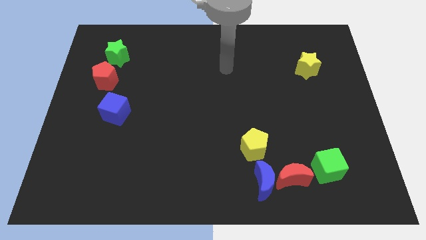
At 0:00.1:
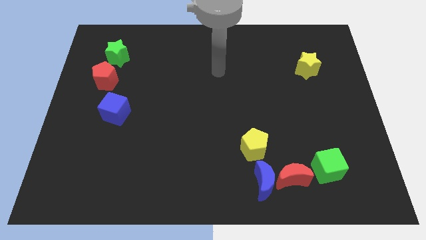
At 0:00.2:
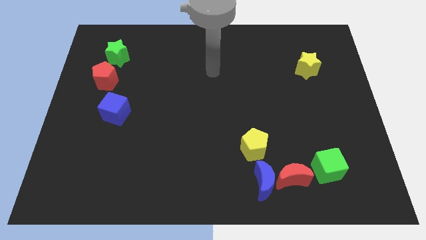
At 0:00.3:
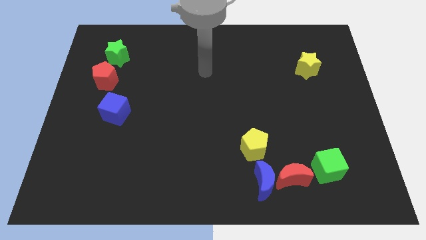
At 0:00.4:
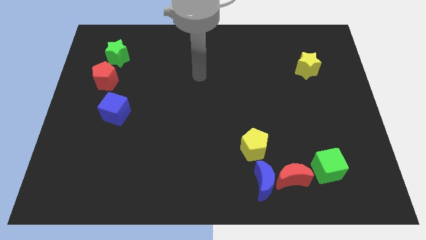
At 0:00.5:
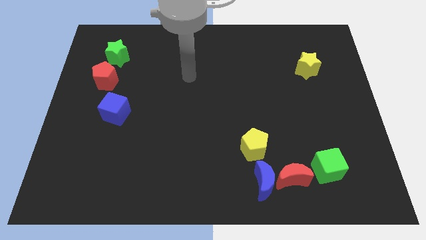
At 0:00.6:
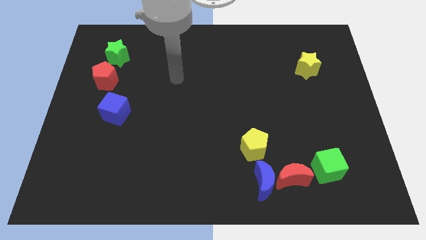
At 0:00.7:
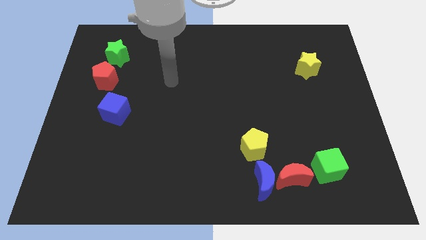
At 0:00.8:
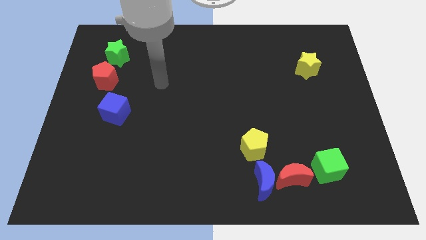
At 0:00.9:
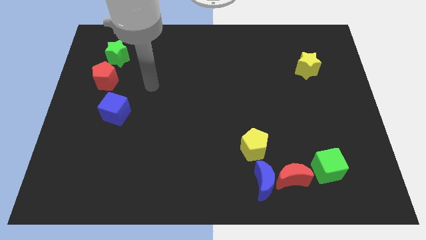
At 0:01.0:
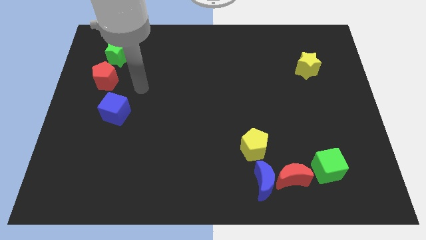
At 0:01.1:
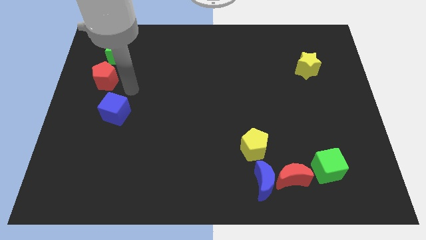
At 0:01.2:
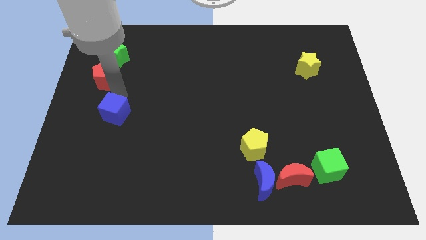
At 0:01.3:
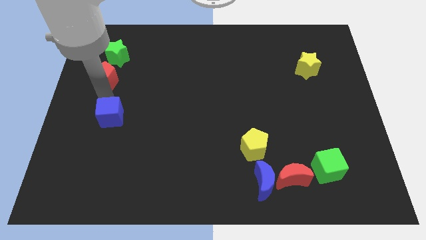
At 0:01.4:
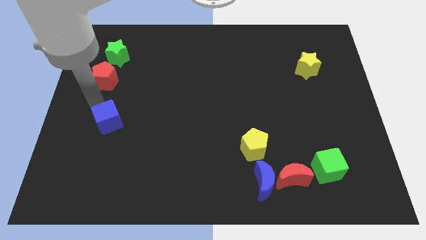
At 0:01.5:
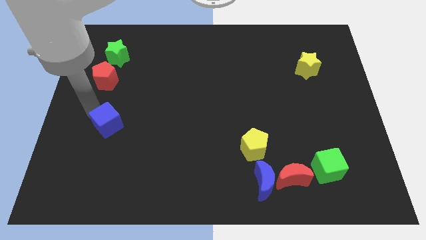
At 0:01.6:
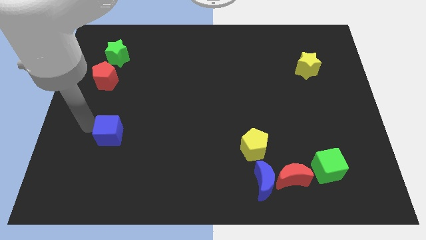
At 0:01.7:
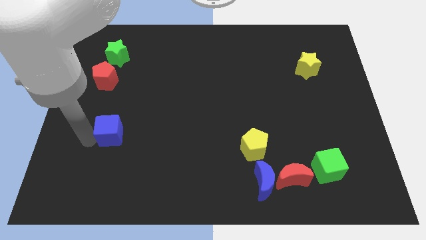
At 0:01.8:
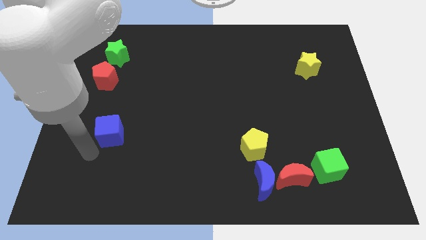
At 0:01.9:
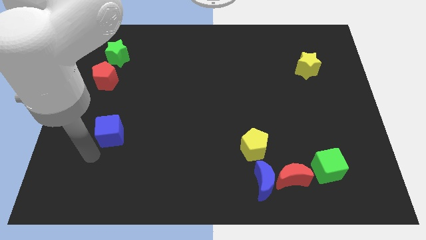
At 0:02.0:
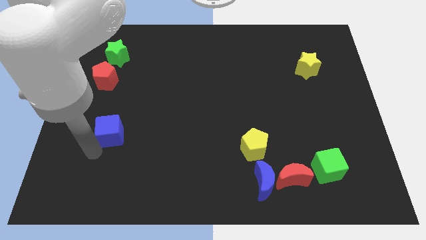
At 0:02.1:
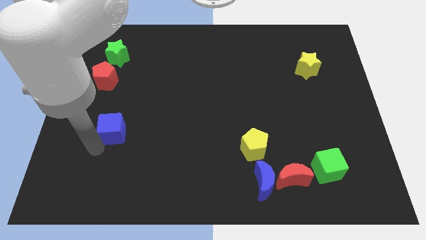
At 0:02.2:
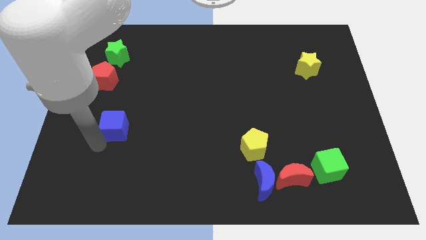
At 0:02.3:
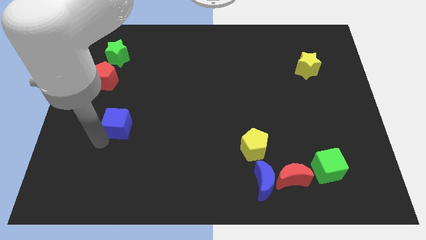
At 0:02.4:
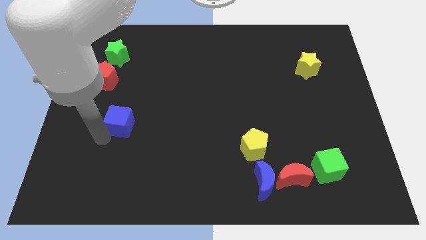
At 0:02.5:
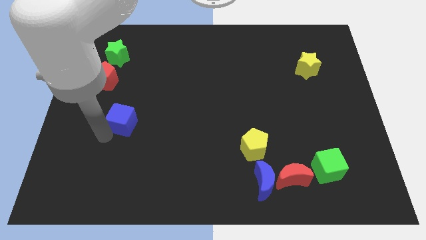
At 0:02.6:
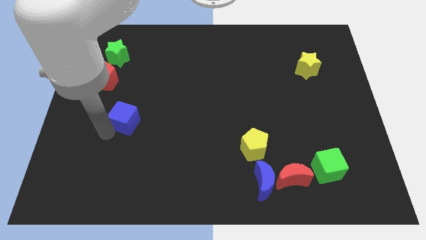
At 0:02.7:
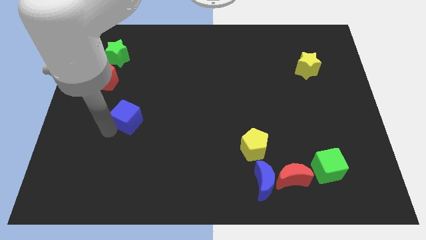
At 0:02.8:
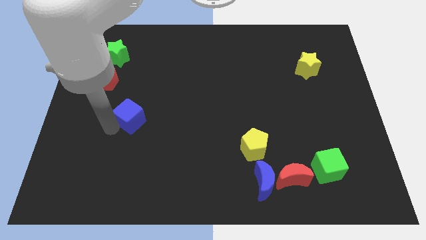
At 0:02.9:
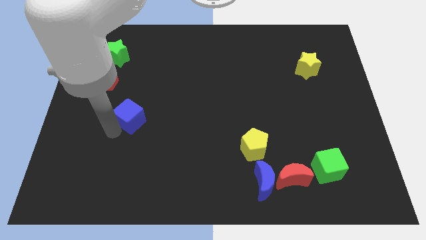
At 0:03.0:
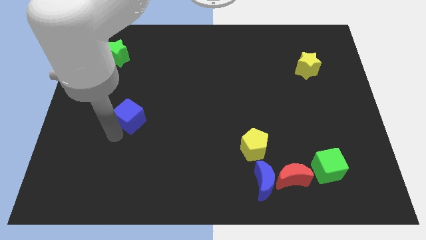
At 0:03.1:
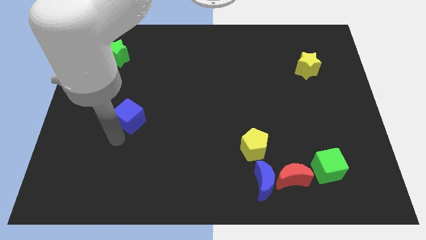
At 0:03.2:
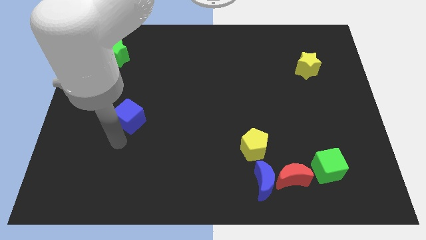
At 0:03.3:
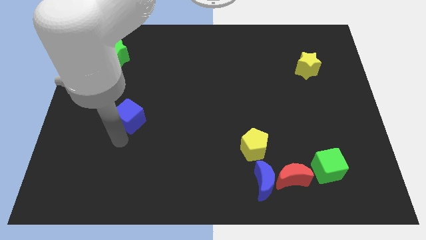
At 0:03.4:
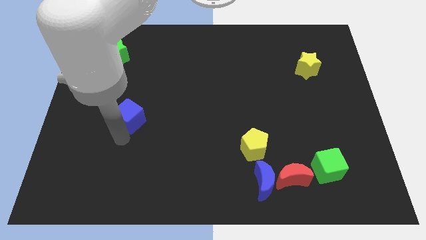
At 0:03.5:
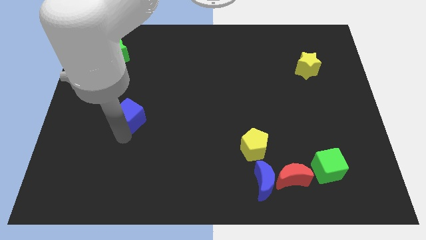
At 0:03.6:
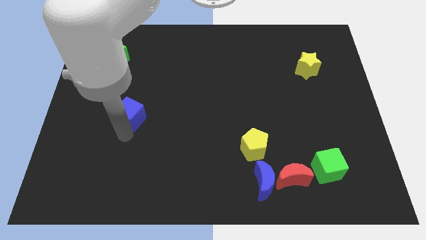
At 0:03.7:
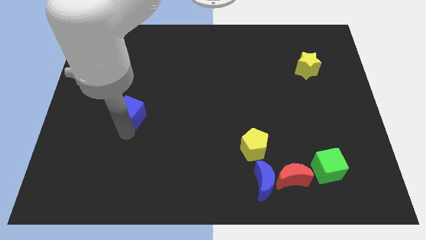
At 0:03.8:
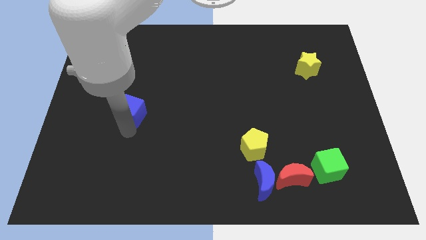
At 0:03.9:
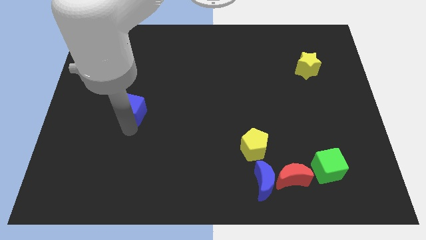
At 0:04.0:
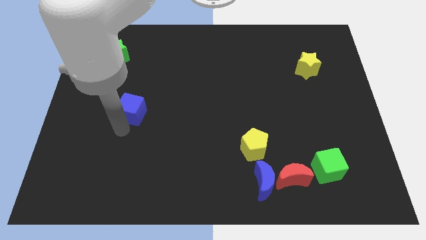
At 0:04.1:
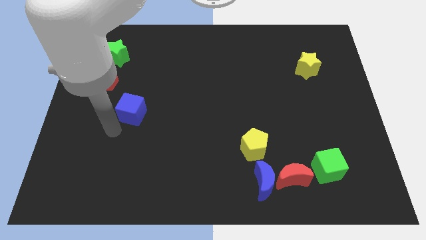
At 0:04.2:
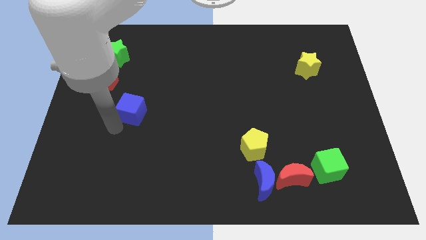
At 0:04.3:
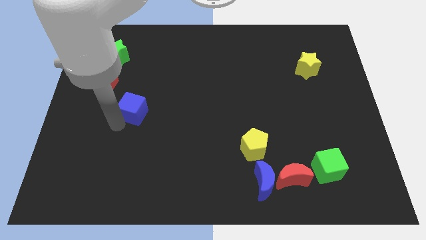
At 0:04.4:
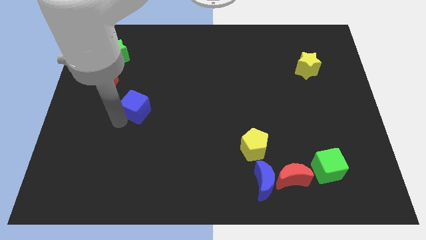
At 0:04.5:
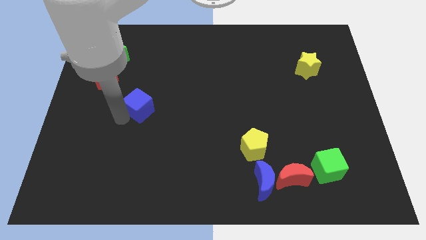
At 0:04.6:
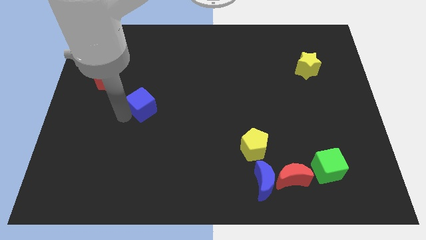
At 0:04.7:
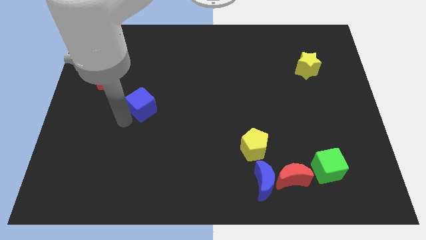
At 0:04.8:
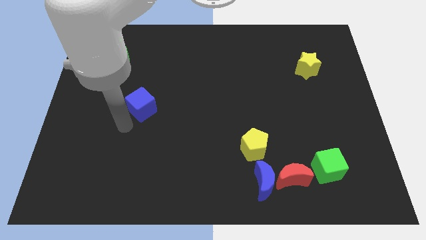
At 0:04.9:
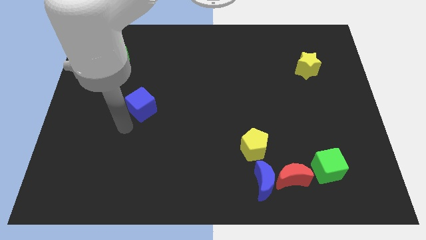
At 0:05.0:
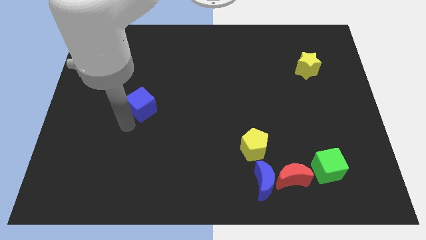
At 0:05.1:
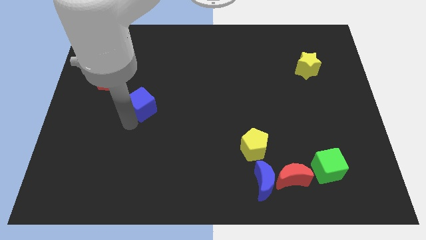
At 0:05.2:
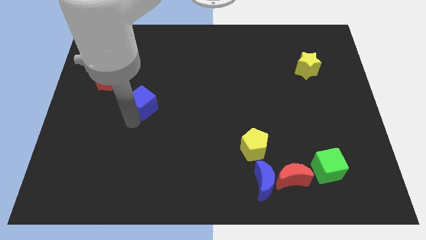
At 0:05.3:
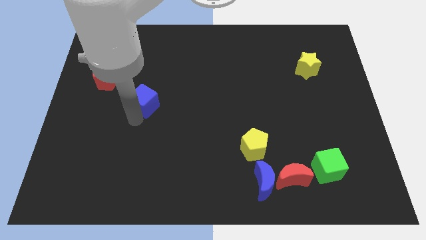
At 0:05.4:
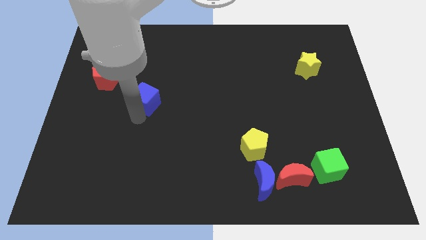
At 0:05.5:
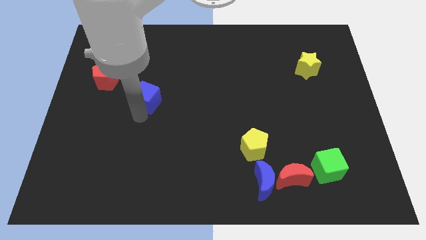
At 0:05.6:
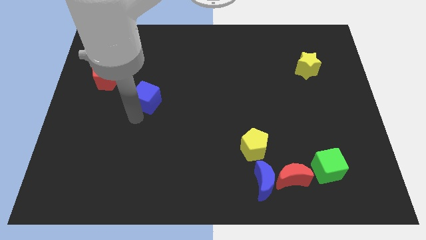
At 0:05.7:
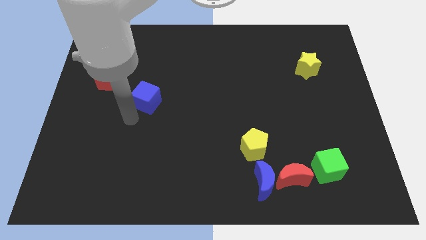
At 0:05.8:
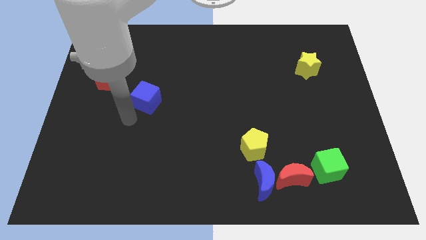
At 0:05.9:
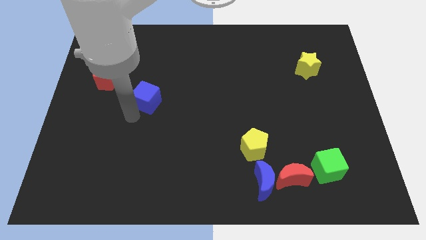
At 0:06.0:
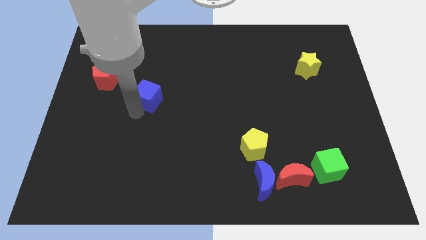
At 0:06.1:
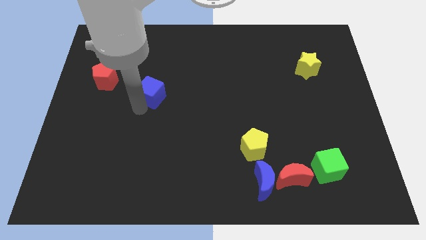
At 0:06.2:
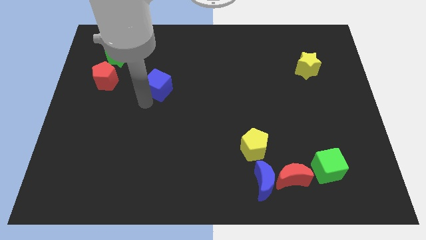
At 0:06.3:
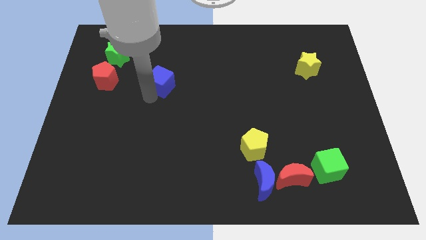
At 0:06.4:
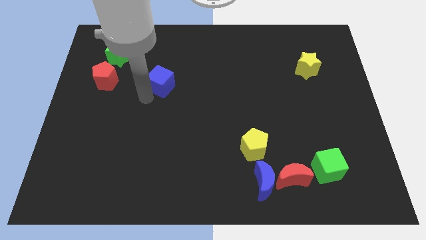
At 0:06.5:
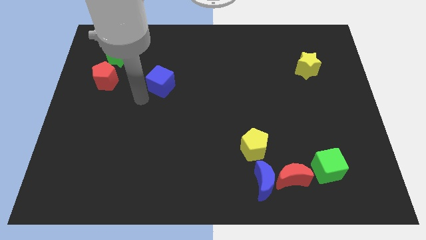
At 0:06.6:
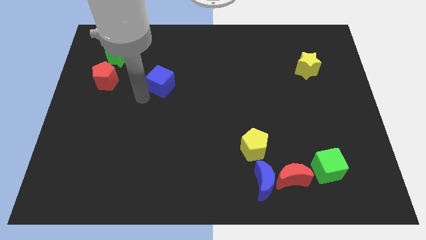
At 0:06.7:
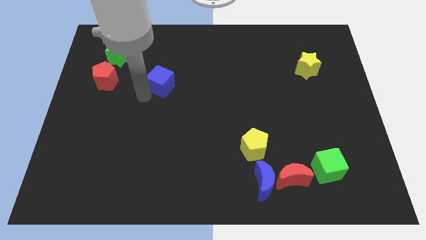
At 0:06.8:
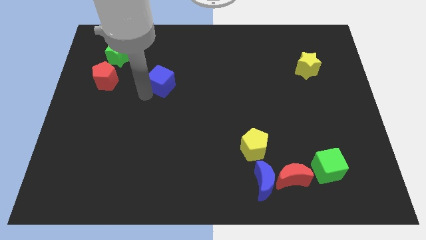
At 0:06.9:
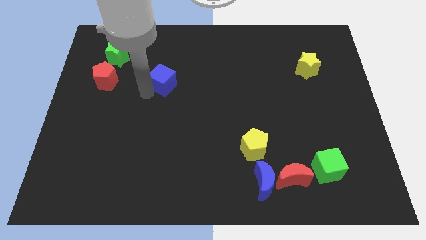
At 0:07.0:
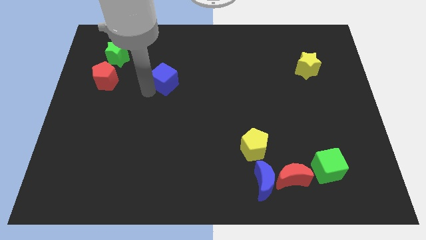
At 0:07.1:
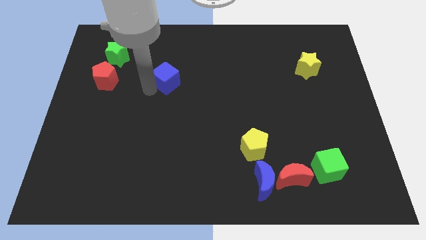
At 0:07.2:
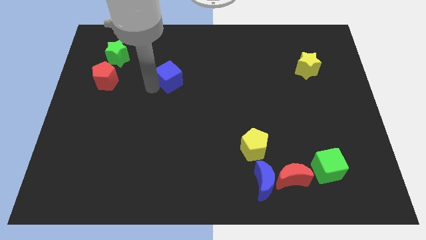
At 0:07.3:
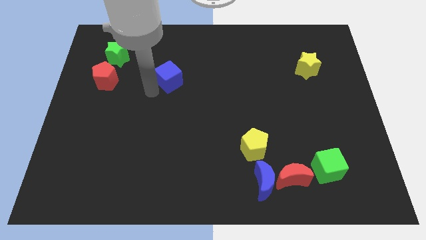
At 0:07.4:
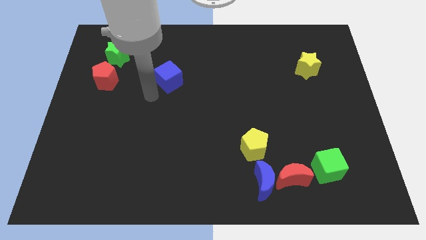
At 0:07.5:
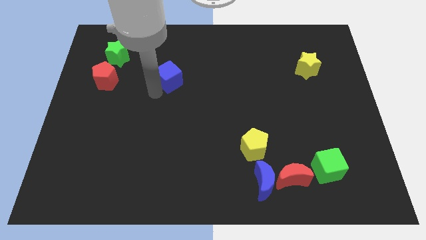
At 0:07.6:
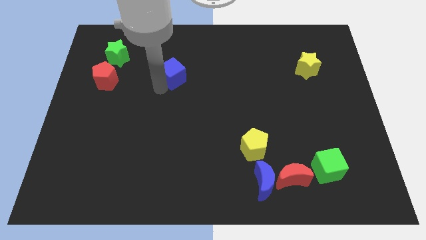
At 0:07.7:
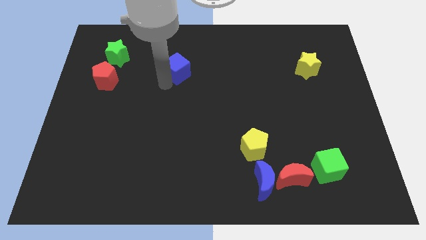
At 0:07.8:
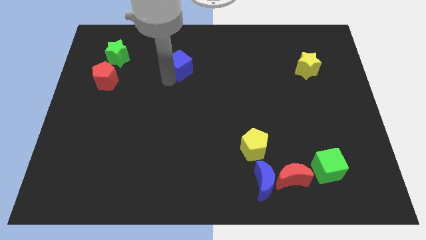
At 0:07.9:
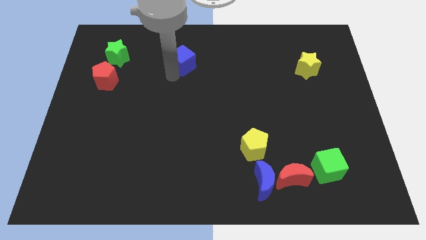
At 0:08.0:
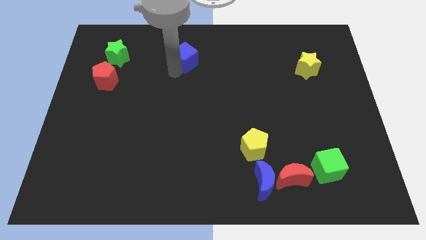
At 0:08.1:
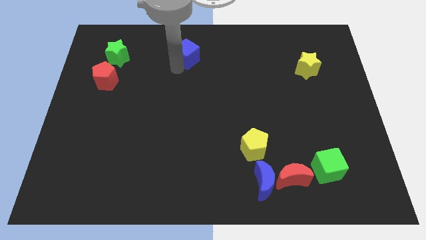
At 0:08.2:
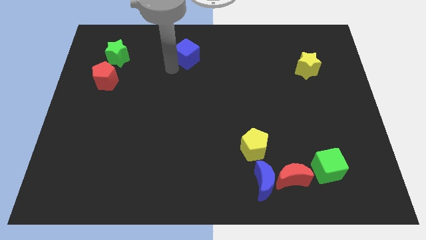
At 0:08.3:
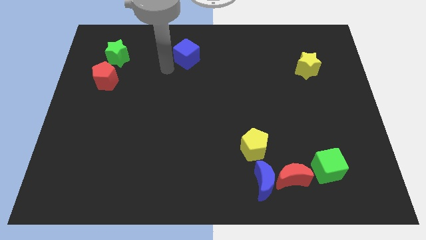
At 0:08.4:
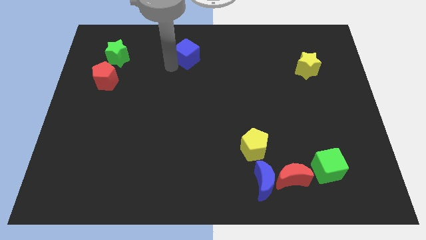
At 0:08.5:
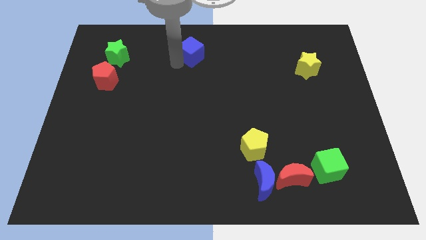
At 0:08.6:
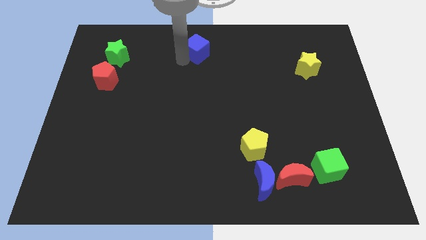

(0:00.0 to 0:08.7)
put the blue cube to the towards your base
